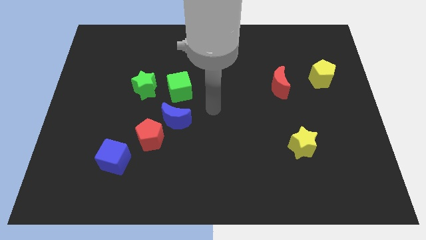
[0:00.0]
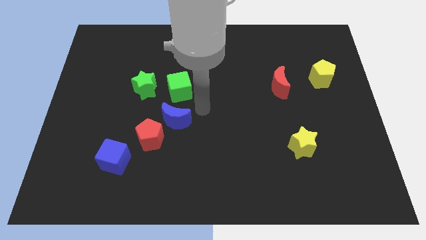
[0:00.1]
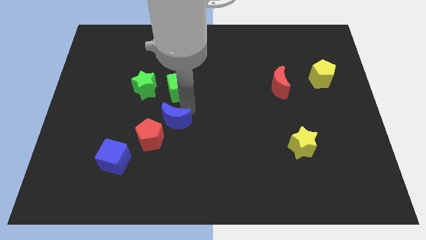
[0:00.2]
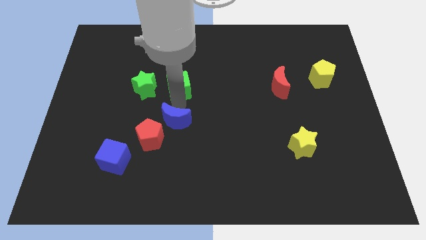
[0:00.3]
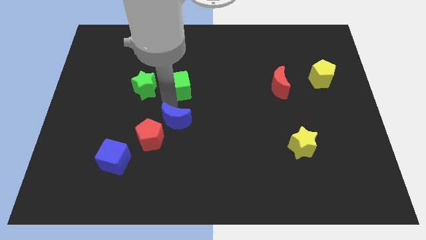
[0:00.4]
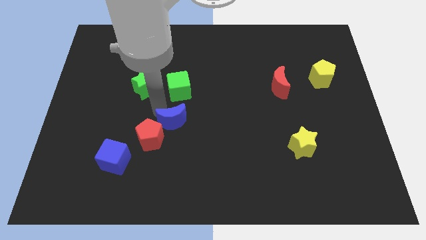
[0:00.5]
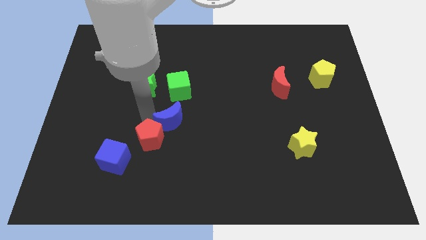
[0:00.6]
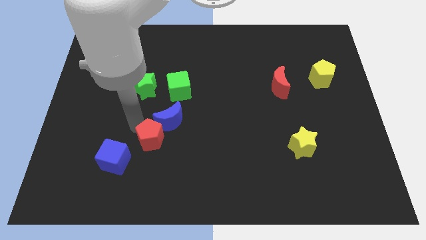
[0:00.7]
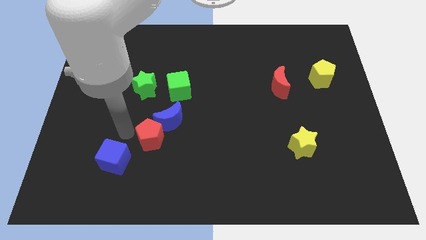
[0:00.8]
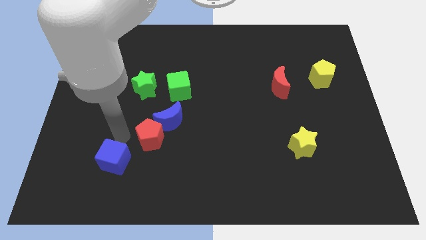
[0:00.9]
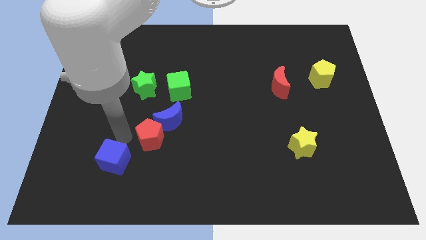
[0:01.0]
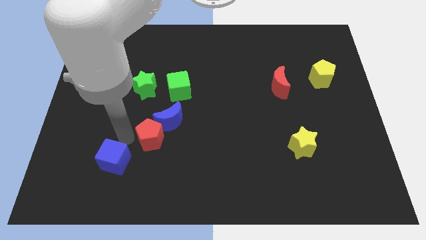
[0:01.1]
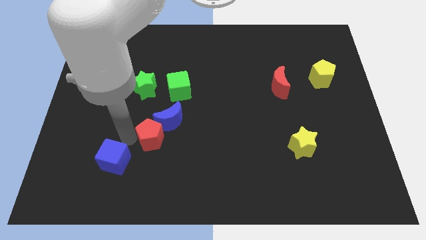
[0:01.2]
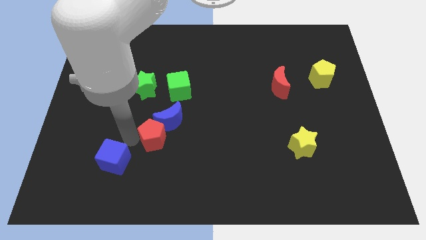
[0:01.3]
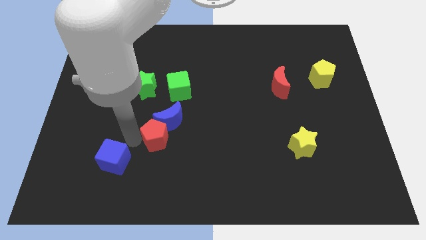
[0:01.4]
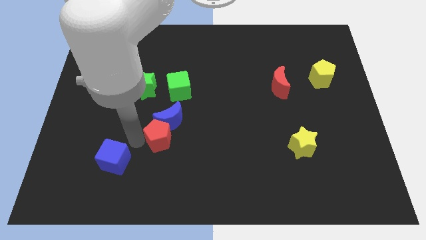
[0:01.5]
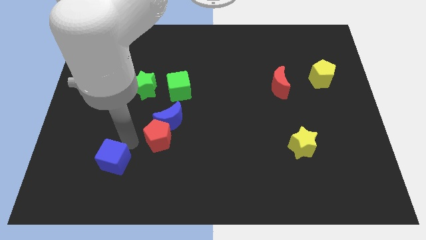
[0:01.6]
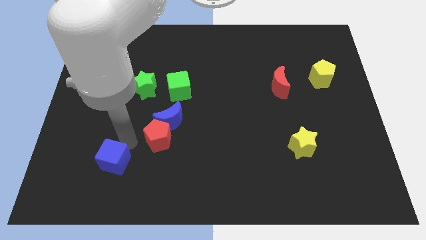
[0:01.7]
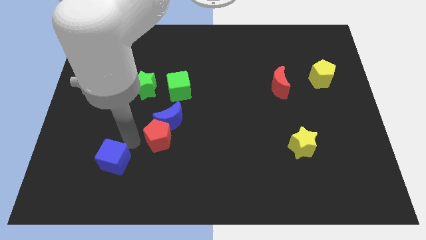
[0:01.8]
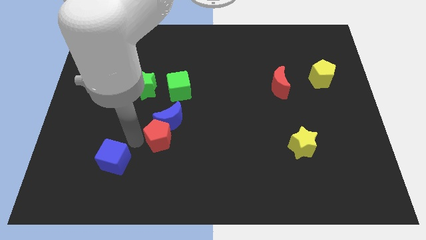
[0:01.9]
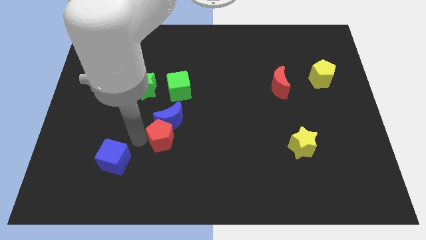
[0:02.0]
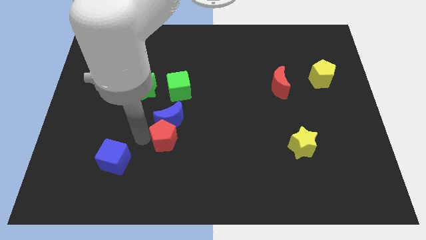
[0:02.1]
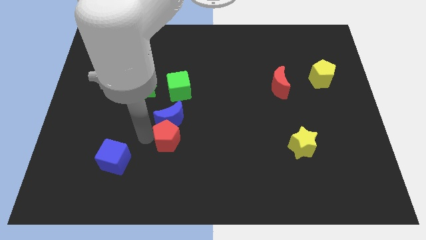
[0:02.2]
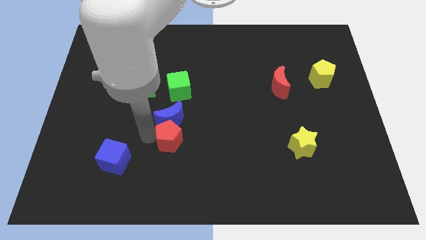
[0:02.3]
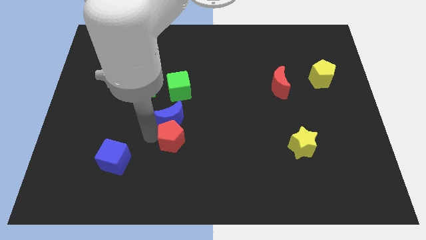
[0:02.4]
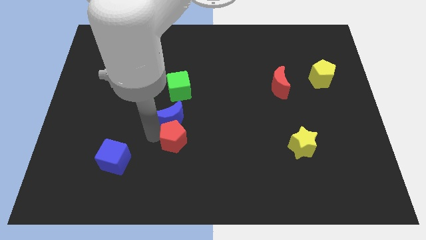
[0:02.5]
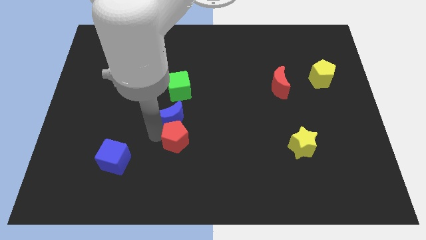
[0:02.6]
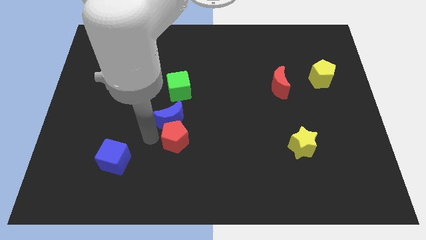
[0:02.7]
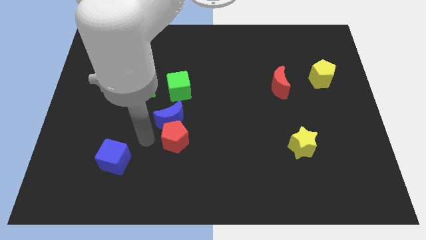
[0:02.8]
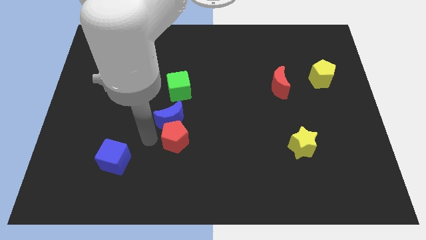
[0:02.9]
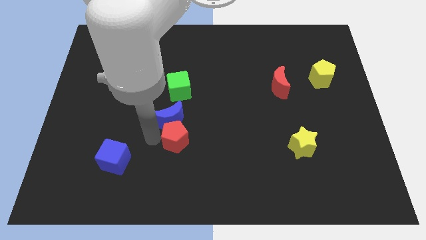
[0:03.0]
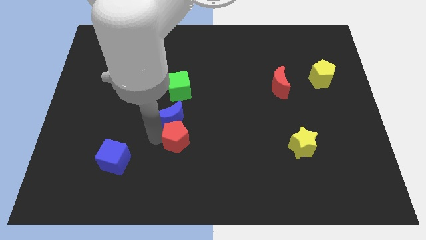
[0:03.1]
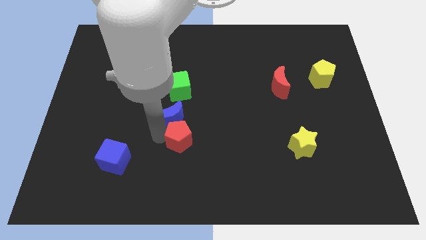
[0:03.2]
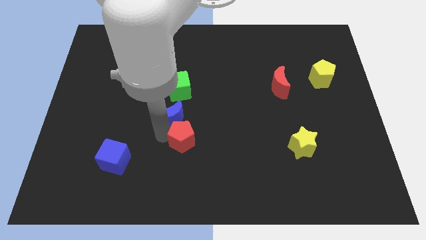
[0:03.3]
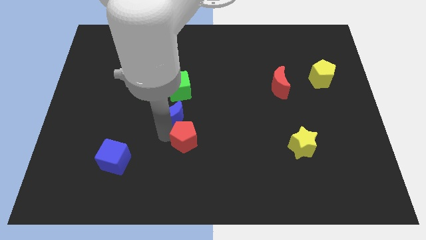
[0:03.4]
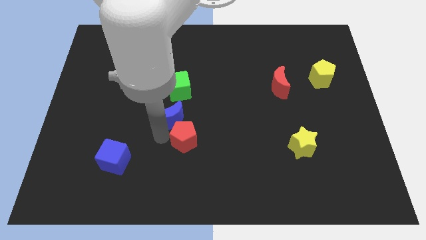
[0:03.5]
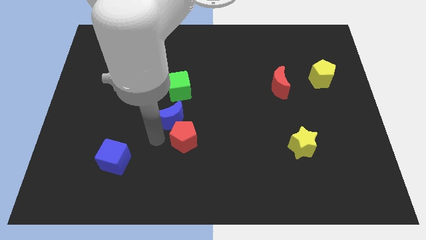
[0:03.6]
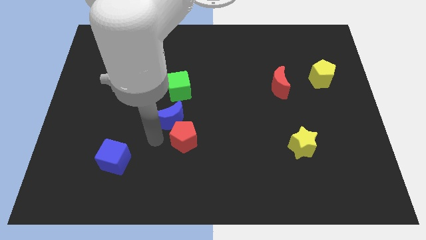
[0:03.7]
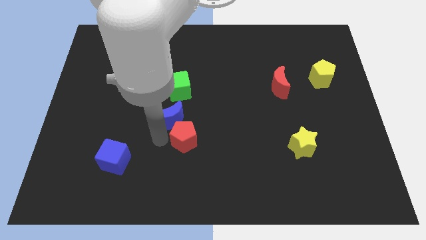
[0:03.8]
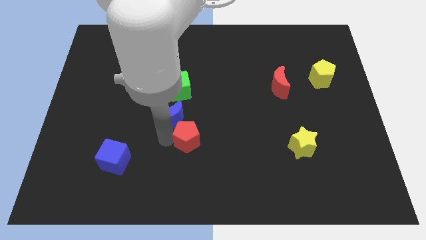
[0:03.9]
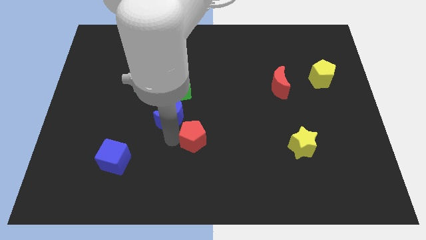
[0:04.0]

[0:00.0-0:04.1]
separate the red pentagon from the blue moon and blue cube

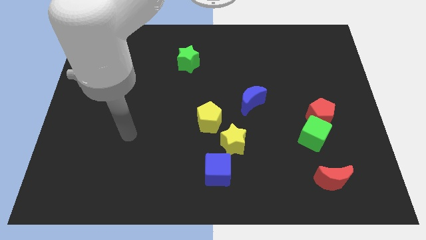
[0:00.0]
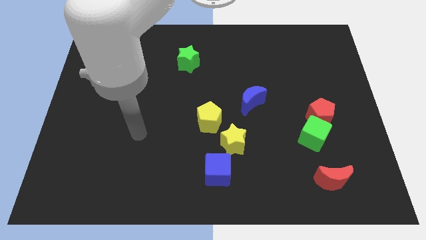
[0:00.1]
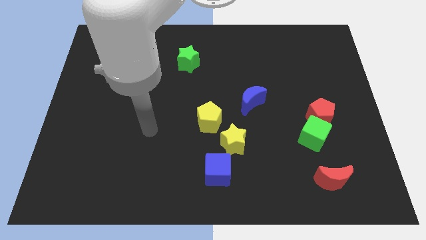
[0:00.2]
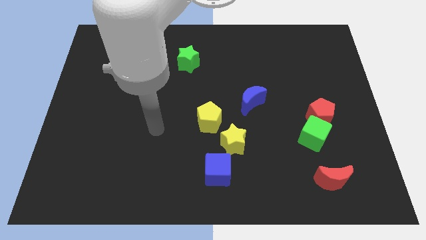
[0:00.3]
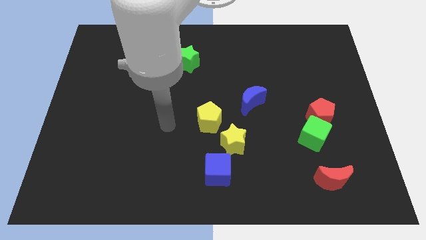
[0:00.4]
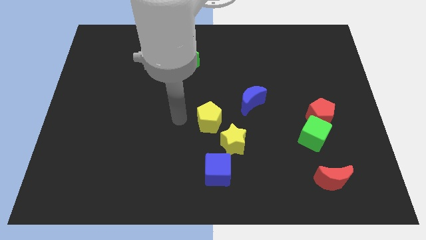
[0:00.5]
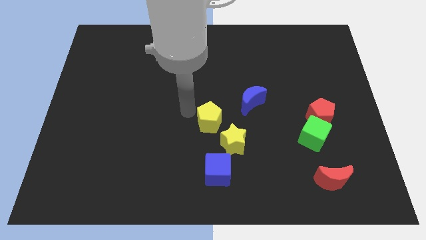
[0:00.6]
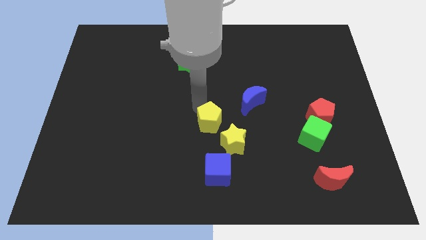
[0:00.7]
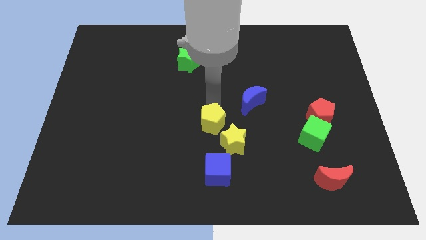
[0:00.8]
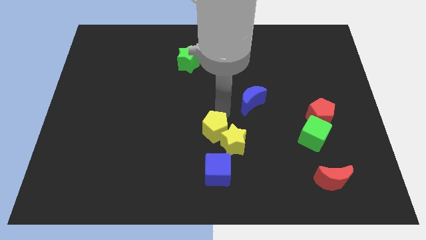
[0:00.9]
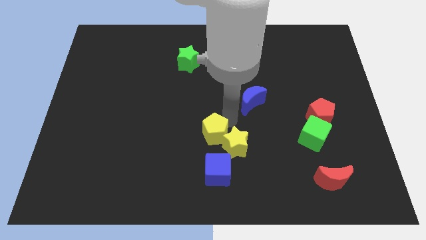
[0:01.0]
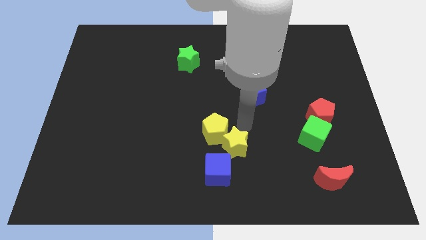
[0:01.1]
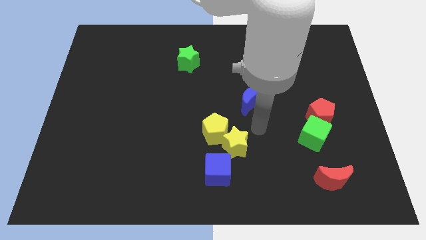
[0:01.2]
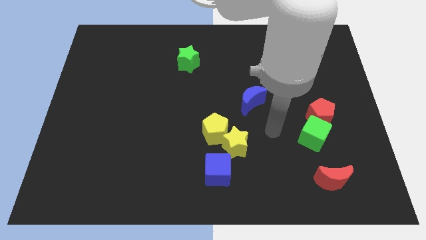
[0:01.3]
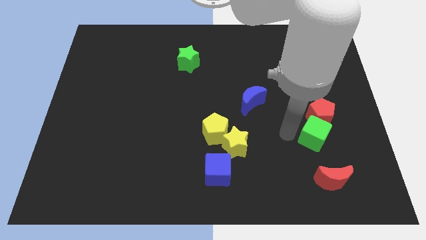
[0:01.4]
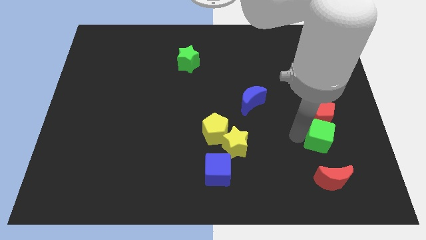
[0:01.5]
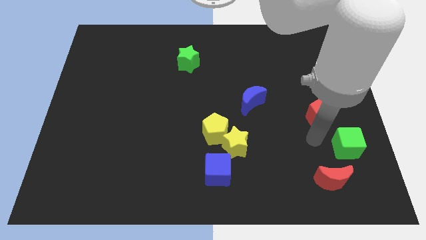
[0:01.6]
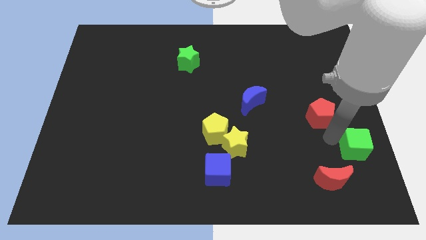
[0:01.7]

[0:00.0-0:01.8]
pull the red pentagon apart from the green cube

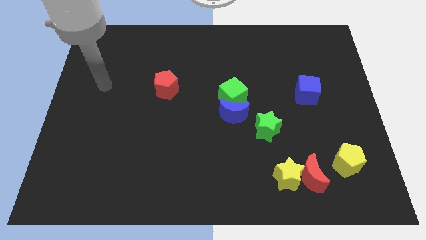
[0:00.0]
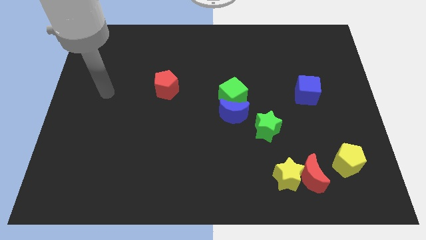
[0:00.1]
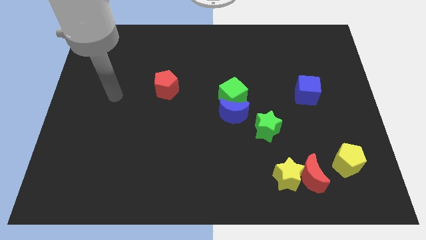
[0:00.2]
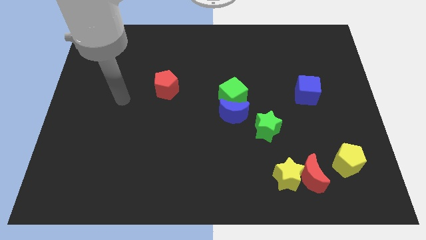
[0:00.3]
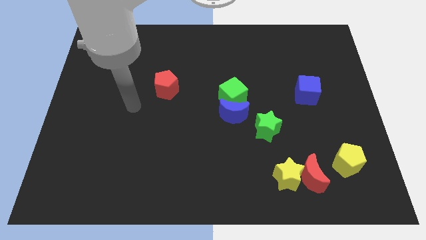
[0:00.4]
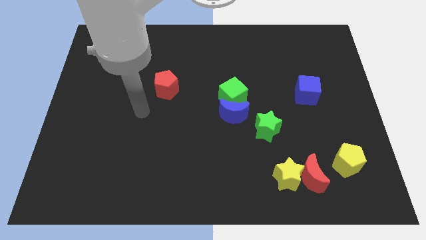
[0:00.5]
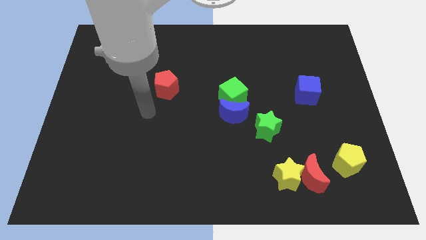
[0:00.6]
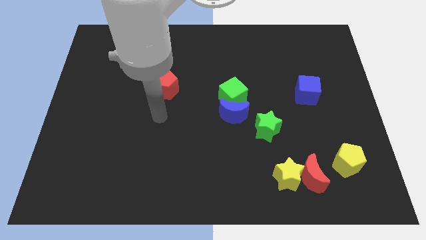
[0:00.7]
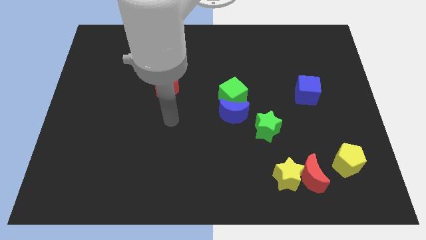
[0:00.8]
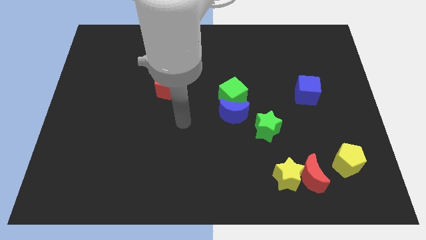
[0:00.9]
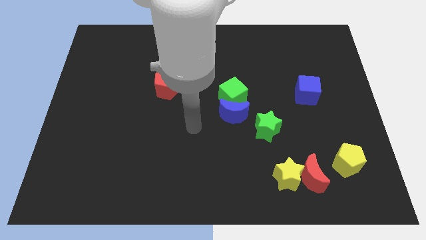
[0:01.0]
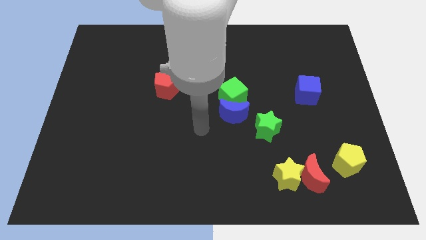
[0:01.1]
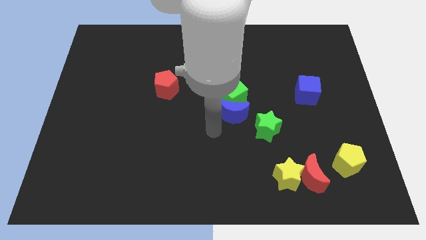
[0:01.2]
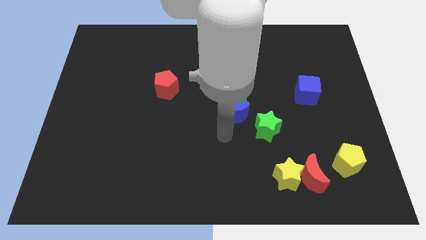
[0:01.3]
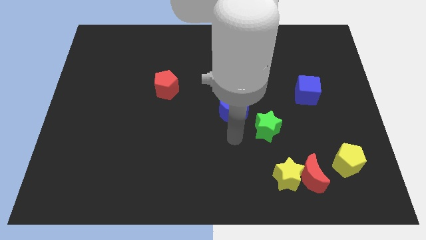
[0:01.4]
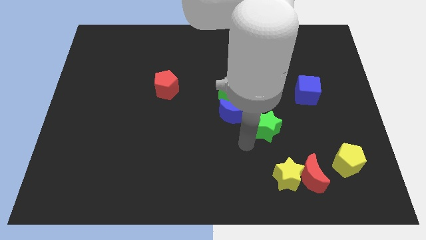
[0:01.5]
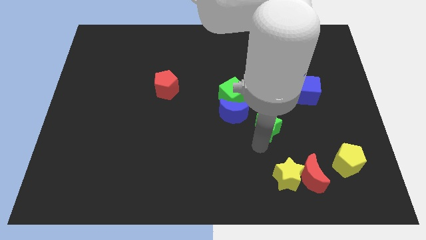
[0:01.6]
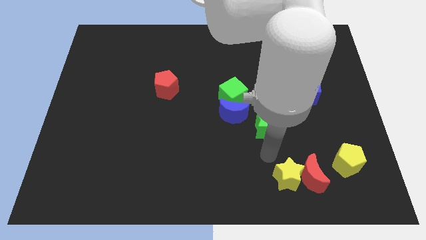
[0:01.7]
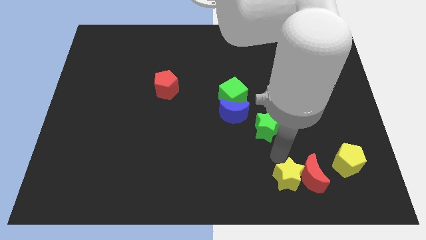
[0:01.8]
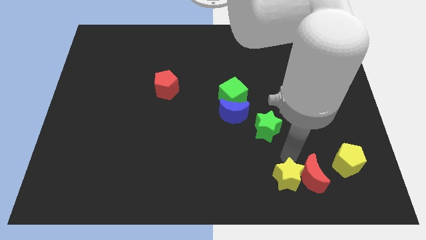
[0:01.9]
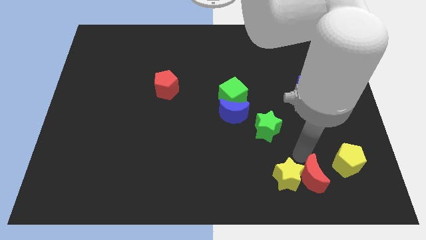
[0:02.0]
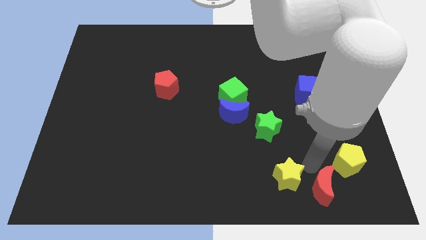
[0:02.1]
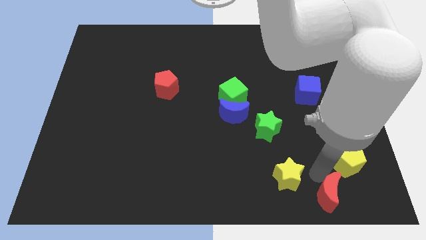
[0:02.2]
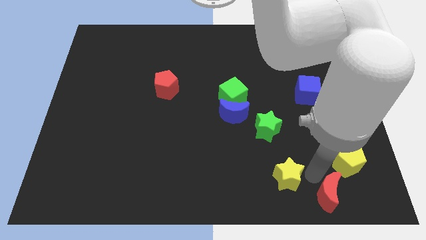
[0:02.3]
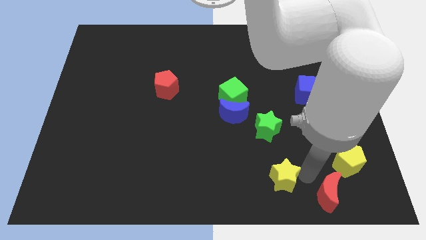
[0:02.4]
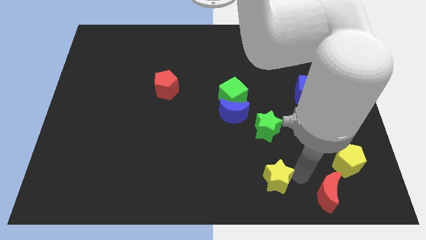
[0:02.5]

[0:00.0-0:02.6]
pull the yellow star apart from the red moon

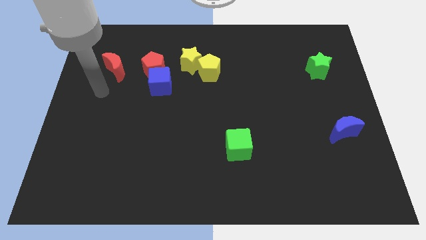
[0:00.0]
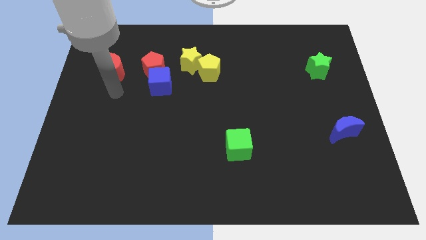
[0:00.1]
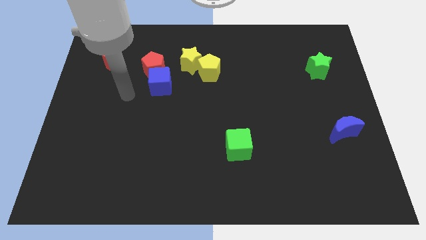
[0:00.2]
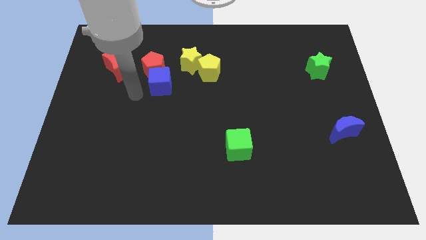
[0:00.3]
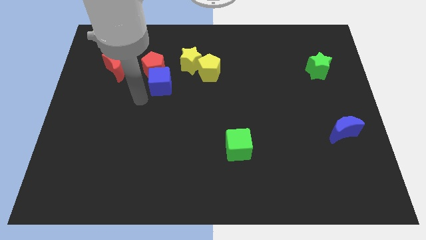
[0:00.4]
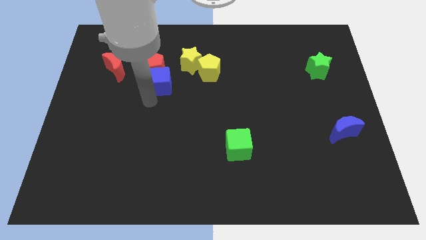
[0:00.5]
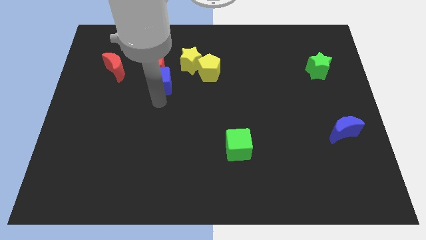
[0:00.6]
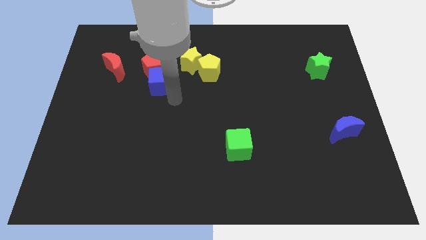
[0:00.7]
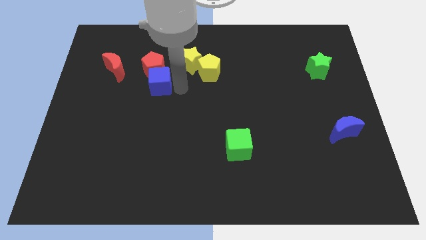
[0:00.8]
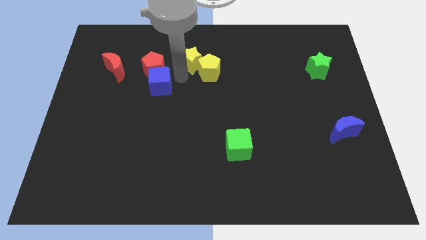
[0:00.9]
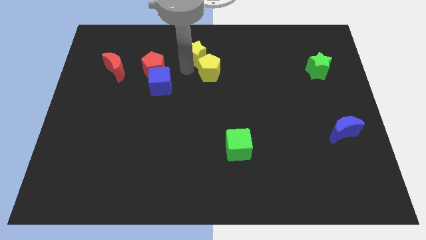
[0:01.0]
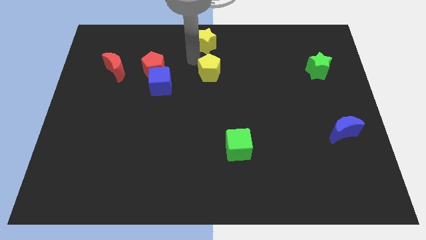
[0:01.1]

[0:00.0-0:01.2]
pull the yellow pentagon apart from the yellow star
